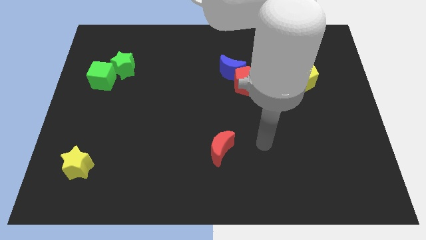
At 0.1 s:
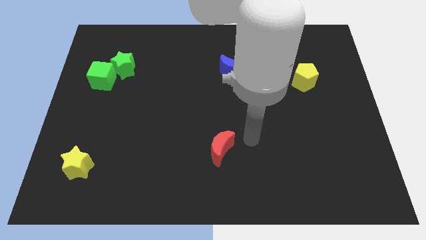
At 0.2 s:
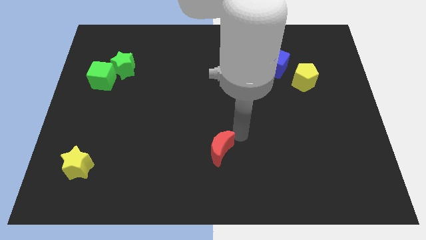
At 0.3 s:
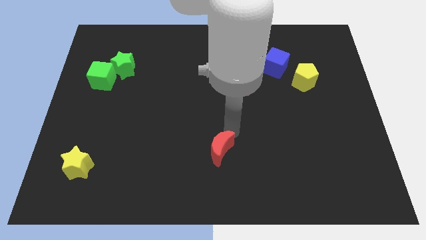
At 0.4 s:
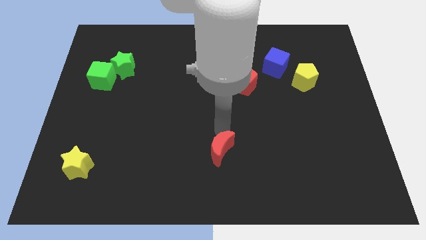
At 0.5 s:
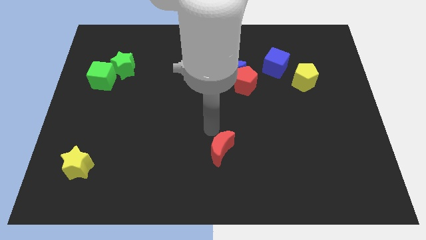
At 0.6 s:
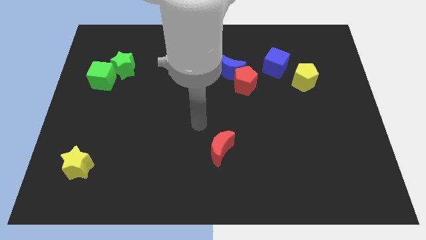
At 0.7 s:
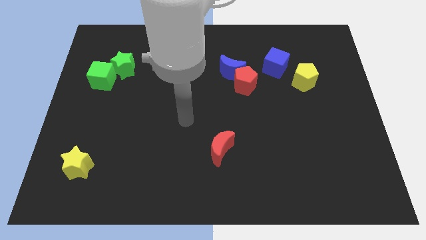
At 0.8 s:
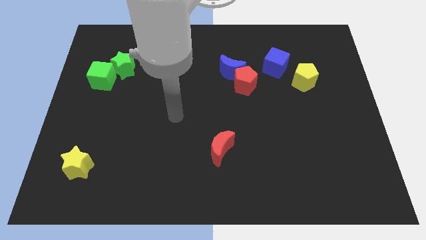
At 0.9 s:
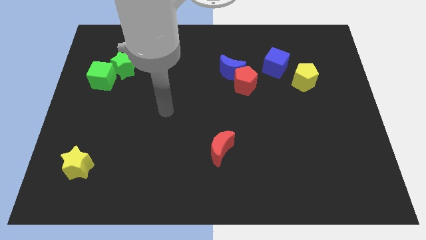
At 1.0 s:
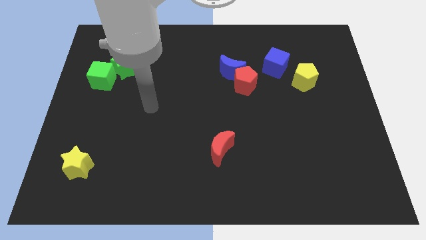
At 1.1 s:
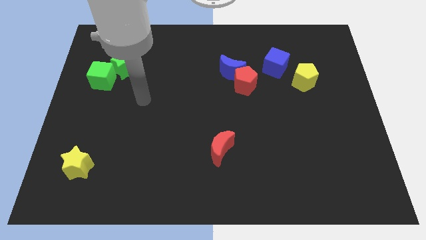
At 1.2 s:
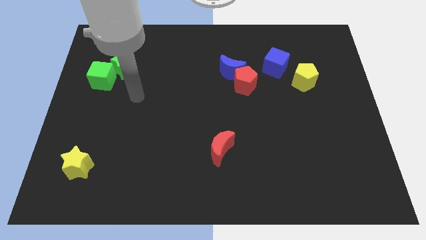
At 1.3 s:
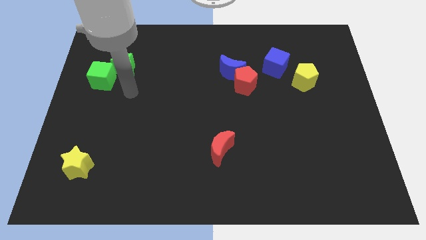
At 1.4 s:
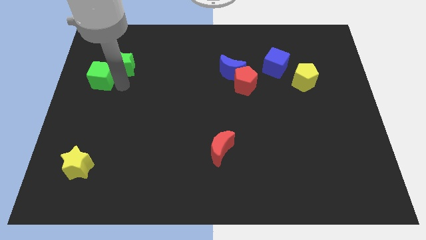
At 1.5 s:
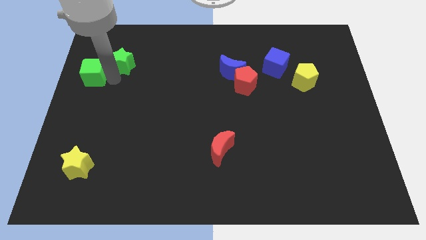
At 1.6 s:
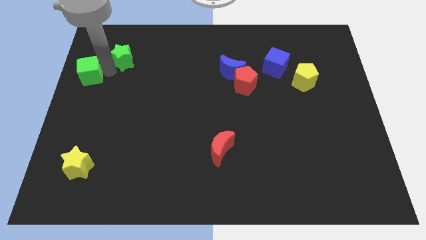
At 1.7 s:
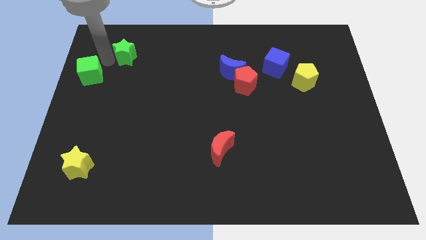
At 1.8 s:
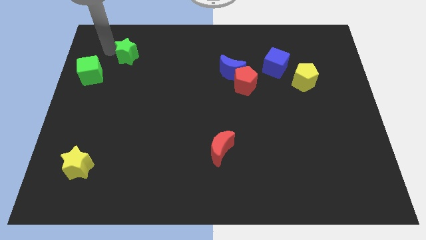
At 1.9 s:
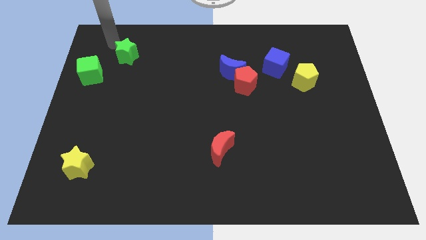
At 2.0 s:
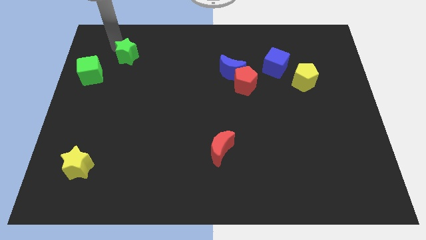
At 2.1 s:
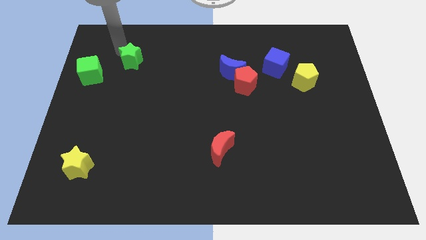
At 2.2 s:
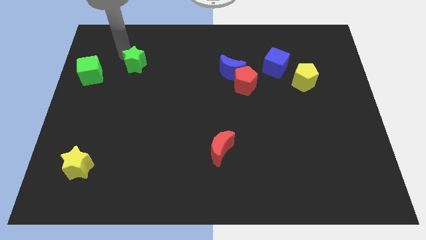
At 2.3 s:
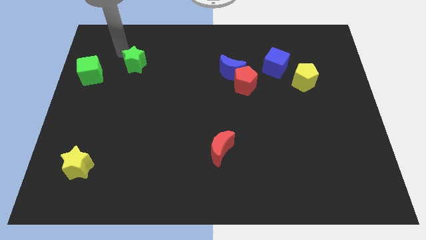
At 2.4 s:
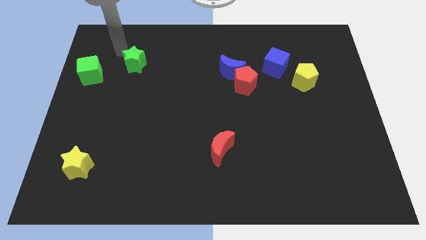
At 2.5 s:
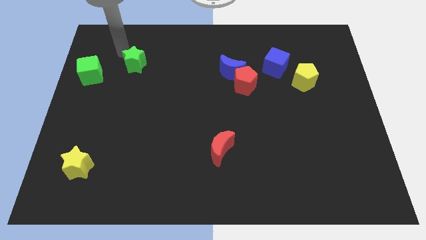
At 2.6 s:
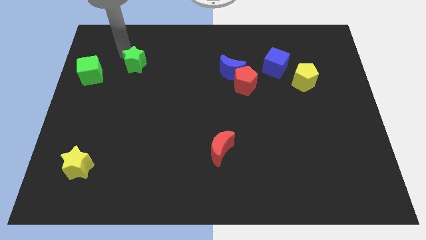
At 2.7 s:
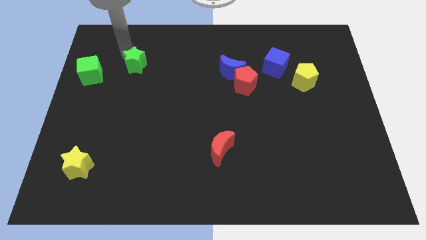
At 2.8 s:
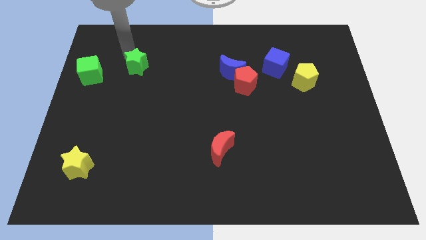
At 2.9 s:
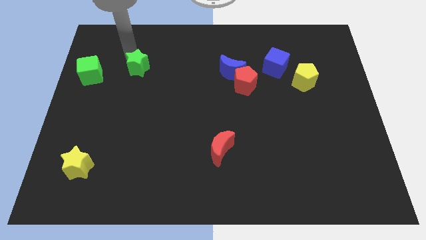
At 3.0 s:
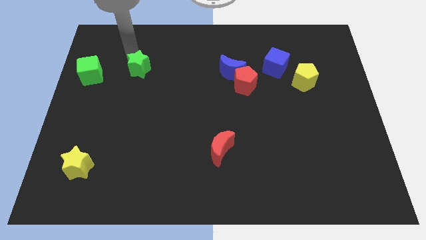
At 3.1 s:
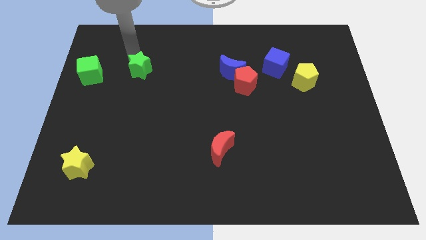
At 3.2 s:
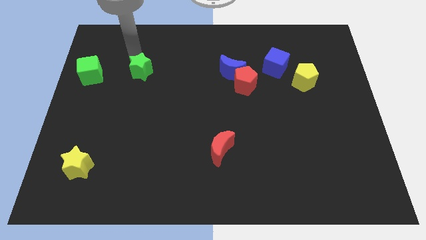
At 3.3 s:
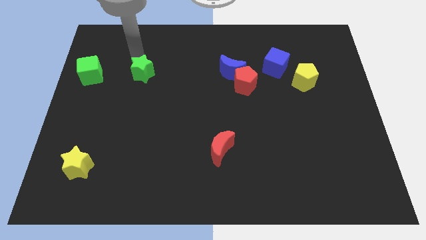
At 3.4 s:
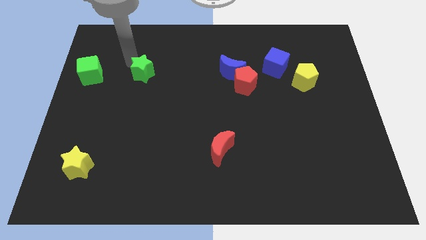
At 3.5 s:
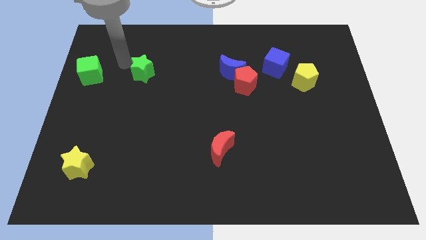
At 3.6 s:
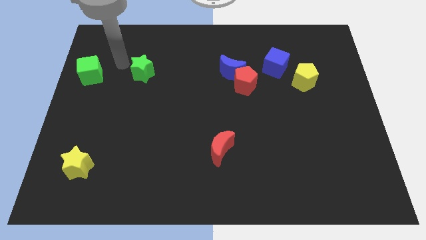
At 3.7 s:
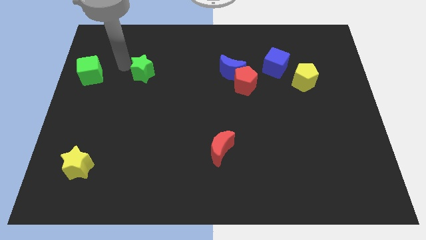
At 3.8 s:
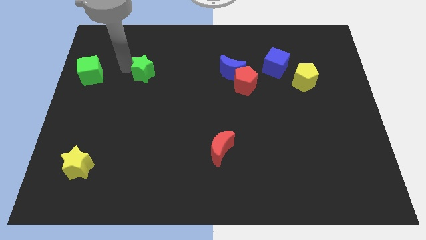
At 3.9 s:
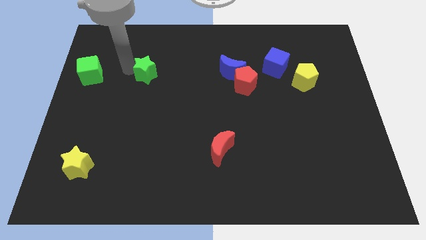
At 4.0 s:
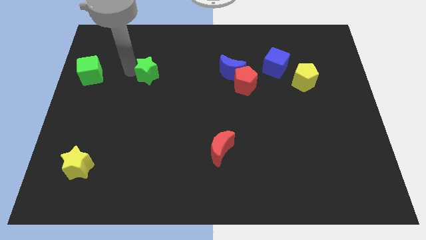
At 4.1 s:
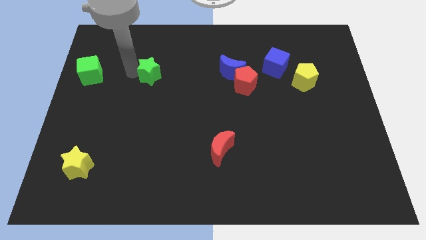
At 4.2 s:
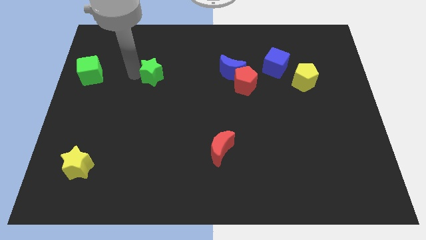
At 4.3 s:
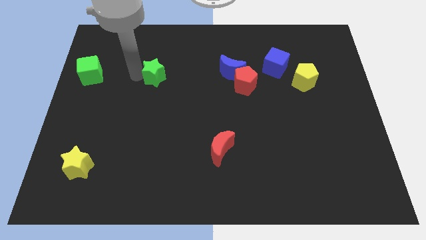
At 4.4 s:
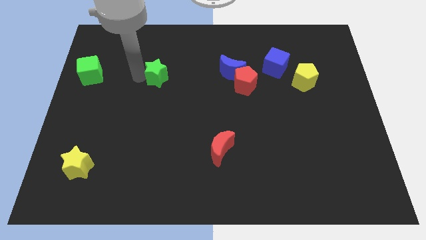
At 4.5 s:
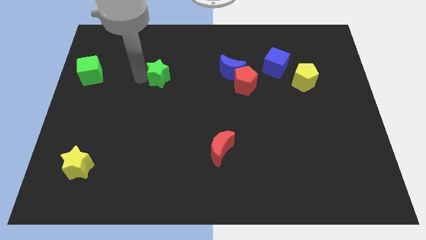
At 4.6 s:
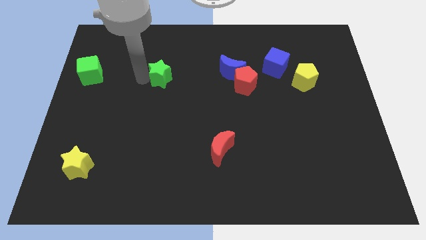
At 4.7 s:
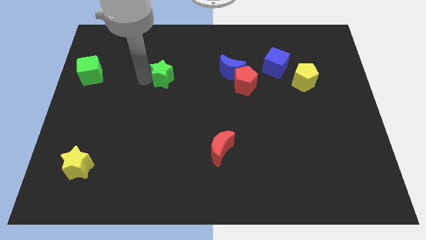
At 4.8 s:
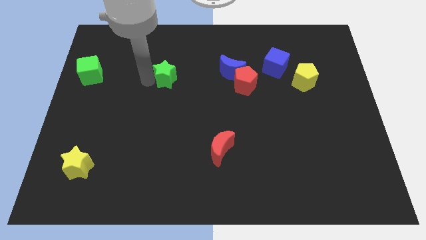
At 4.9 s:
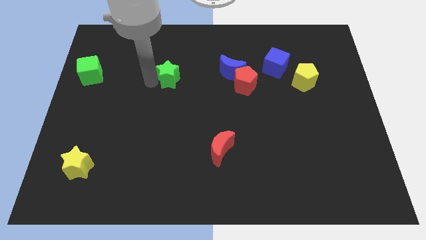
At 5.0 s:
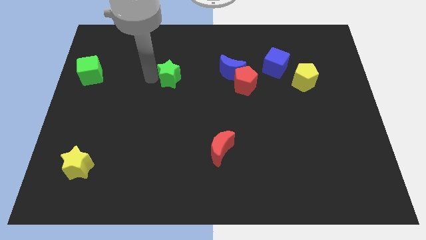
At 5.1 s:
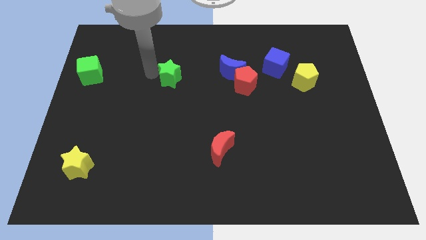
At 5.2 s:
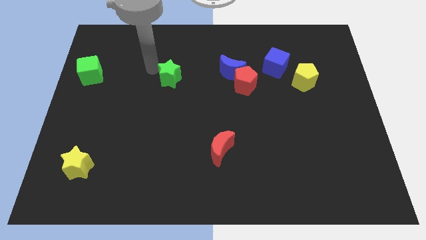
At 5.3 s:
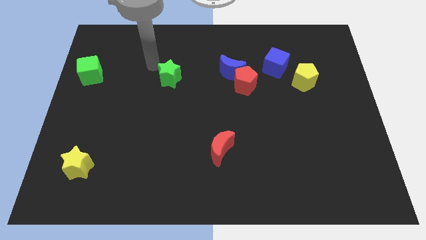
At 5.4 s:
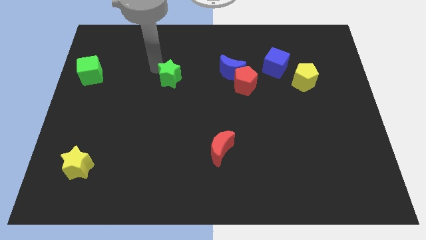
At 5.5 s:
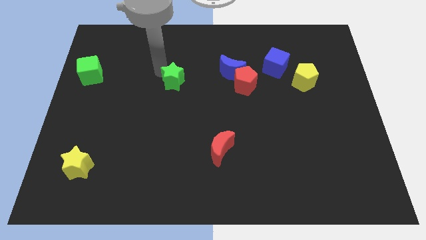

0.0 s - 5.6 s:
move the green star to the center of the board

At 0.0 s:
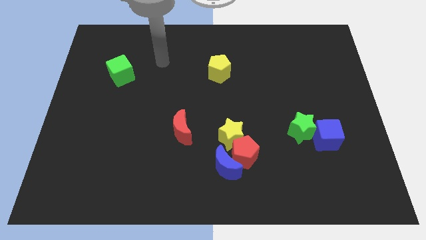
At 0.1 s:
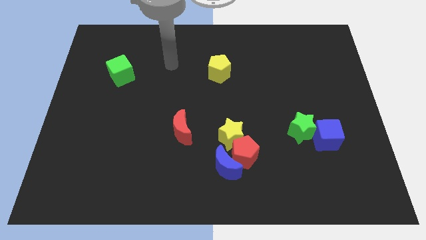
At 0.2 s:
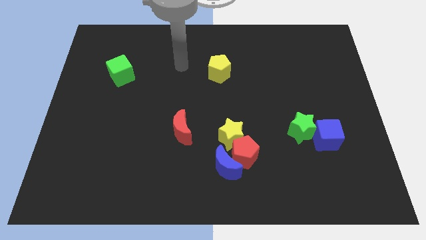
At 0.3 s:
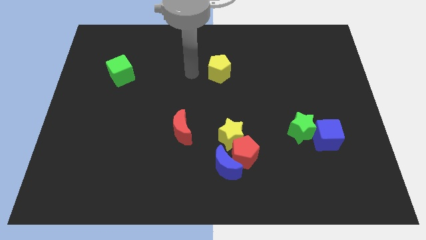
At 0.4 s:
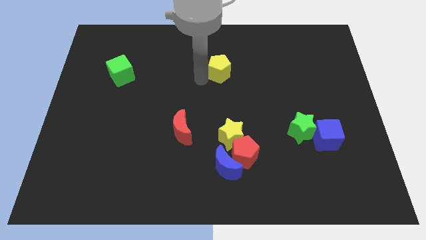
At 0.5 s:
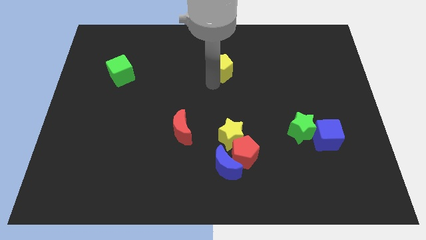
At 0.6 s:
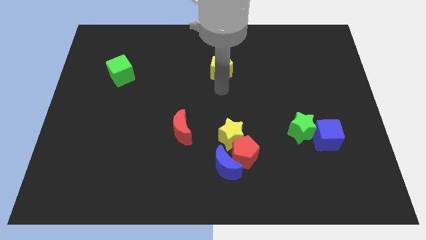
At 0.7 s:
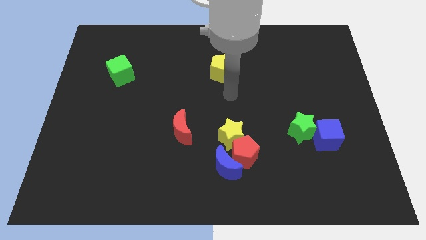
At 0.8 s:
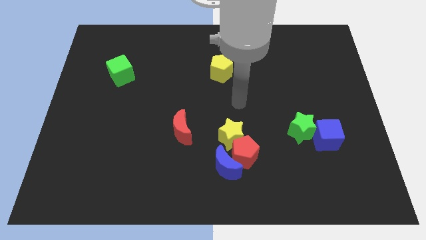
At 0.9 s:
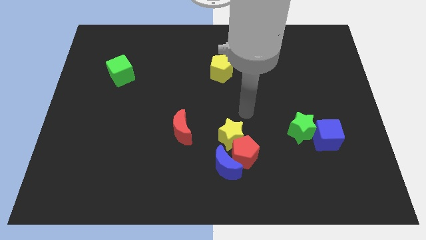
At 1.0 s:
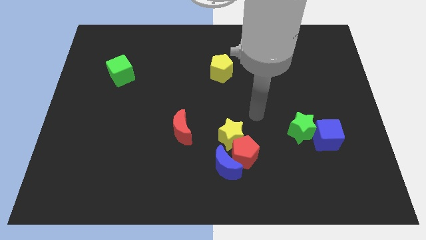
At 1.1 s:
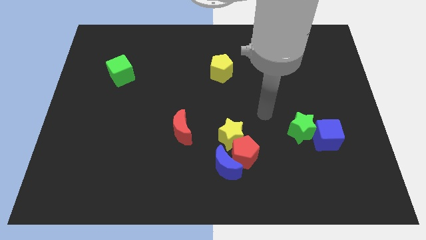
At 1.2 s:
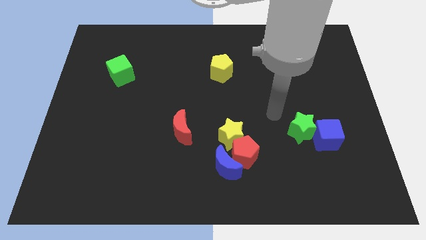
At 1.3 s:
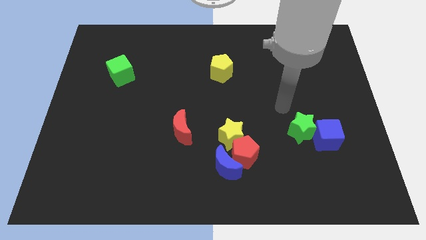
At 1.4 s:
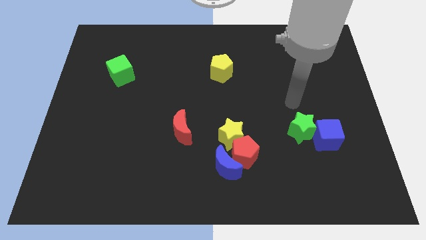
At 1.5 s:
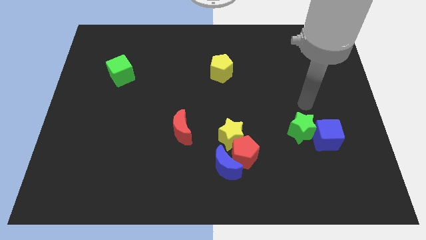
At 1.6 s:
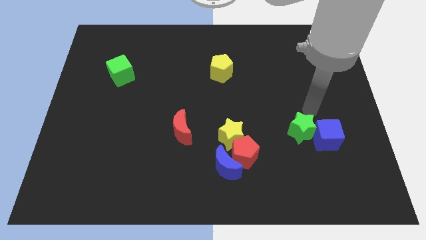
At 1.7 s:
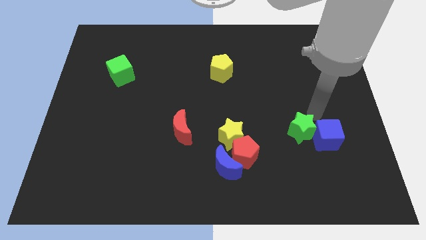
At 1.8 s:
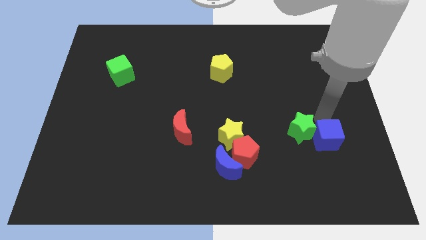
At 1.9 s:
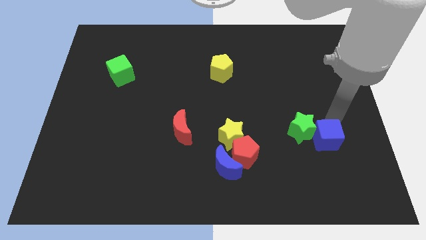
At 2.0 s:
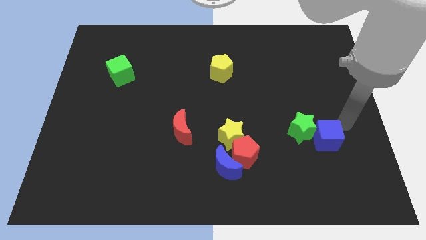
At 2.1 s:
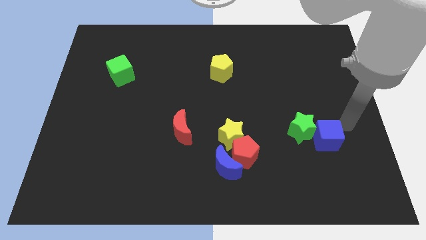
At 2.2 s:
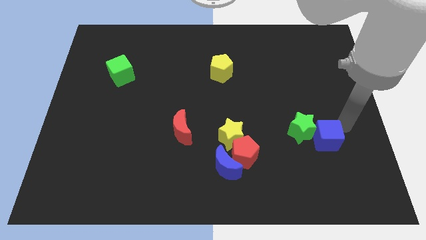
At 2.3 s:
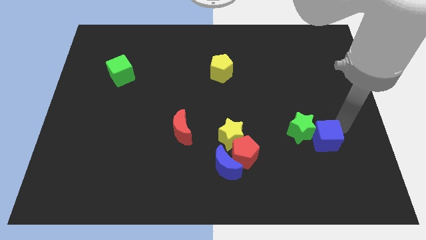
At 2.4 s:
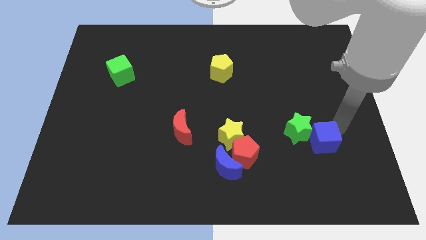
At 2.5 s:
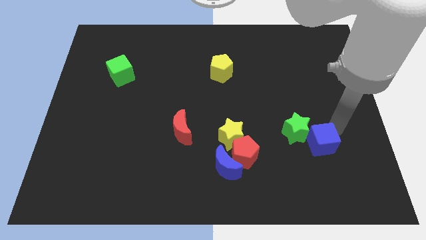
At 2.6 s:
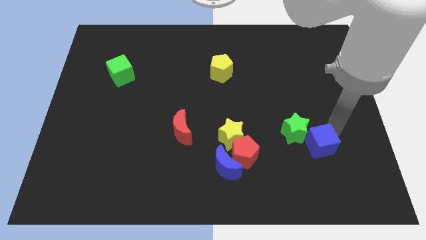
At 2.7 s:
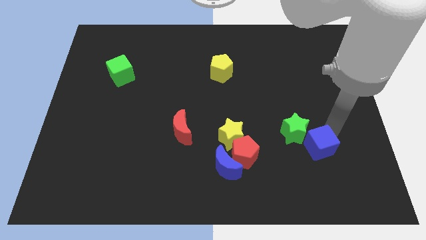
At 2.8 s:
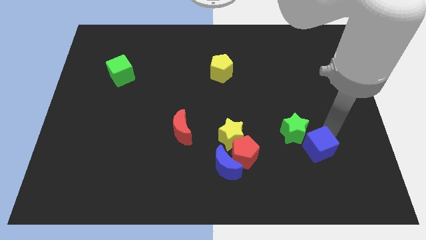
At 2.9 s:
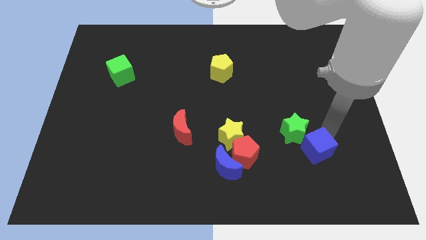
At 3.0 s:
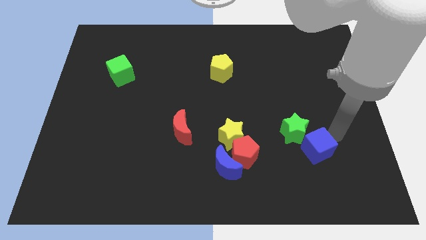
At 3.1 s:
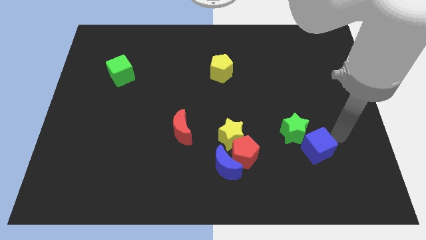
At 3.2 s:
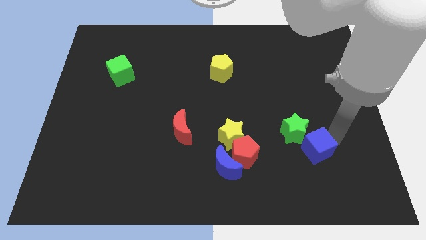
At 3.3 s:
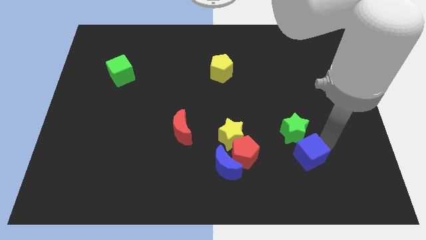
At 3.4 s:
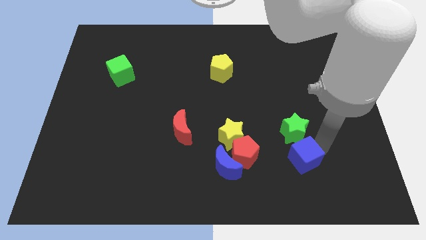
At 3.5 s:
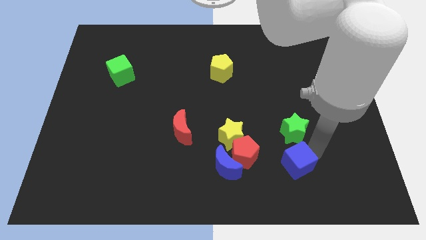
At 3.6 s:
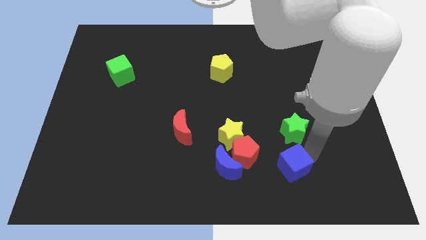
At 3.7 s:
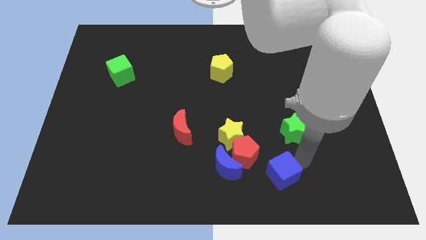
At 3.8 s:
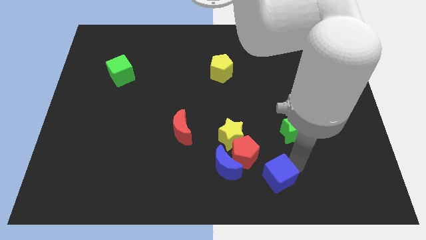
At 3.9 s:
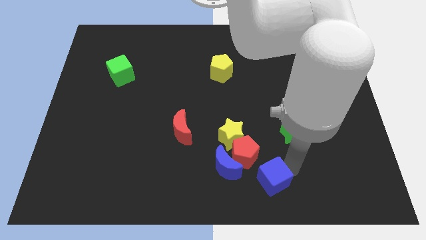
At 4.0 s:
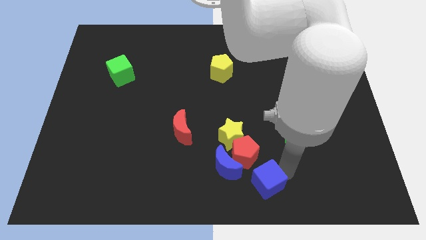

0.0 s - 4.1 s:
move the blue cube to the bottom side
